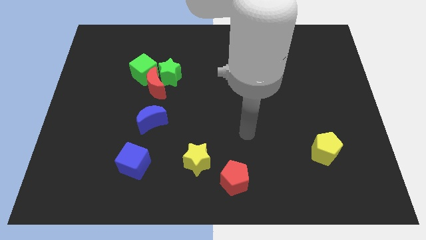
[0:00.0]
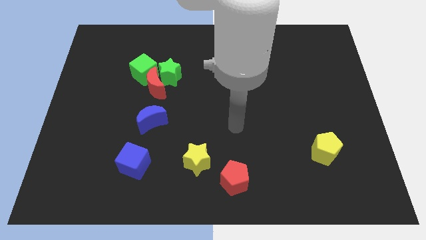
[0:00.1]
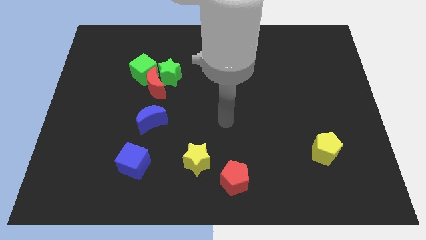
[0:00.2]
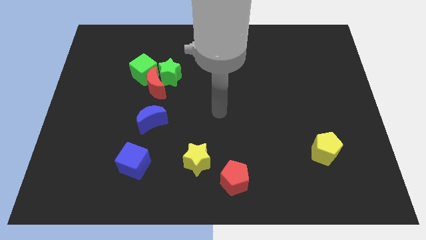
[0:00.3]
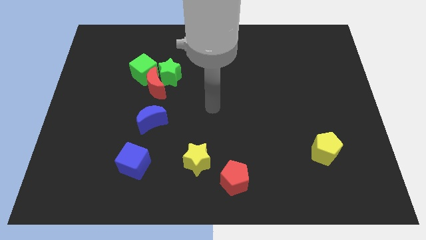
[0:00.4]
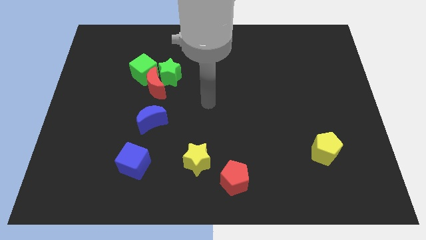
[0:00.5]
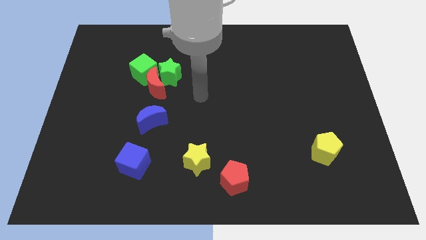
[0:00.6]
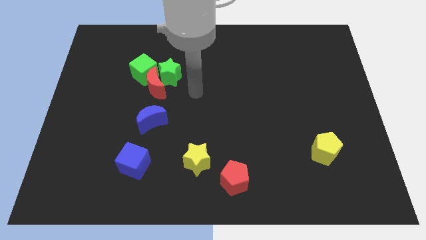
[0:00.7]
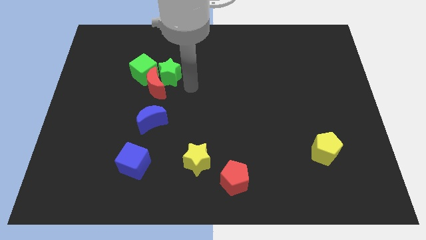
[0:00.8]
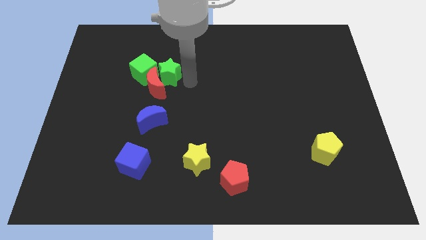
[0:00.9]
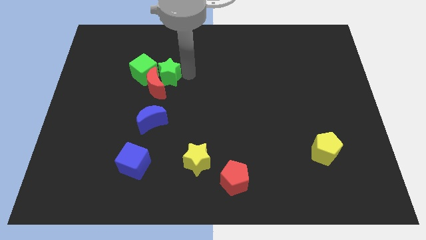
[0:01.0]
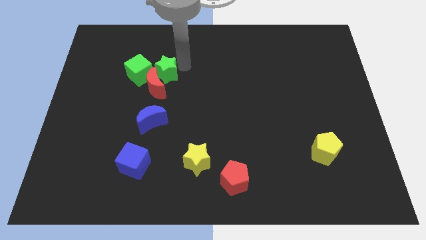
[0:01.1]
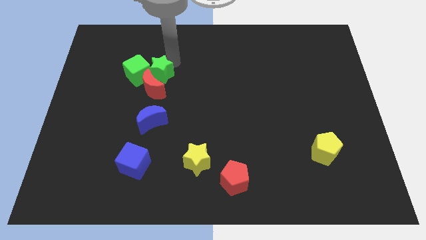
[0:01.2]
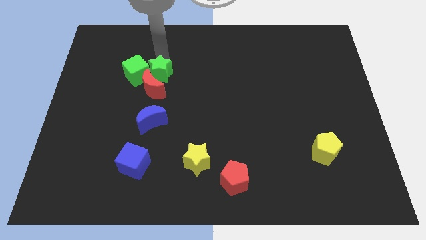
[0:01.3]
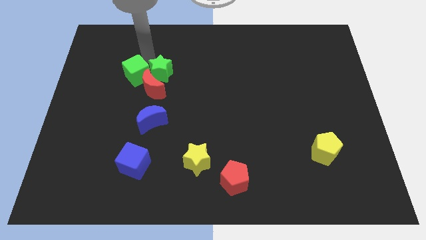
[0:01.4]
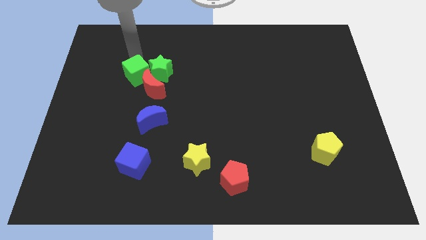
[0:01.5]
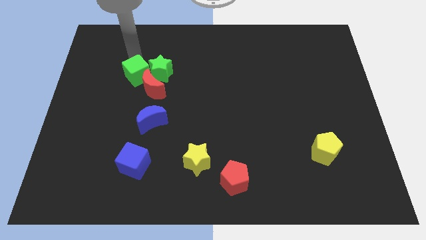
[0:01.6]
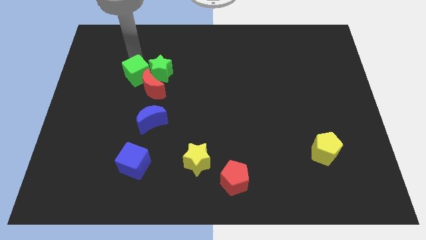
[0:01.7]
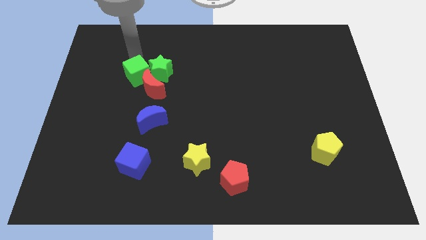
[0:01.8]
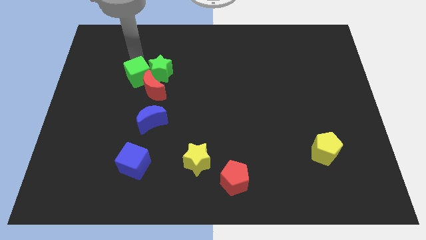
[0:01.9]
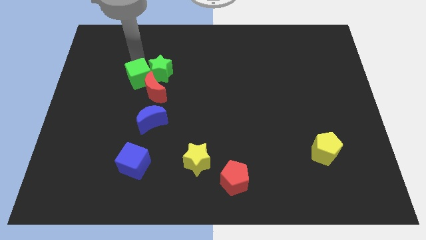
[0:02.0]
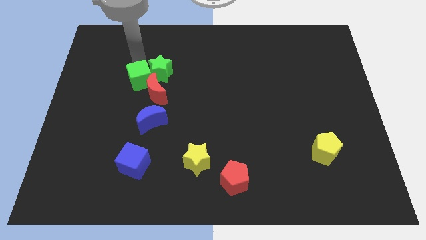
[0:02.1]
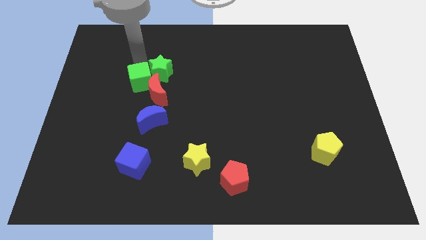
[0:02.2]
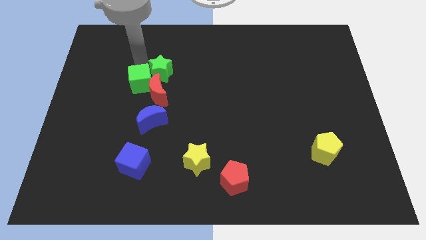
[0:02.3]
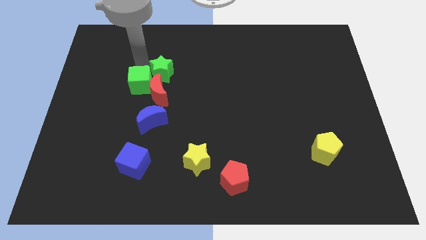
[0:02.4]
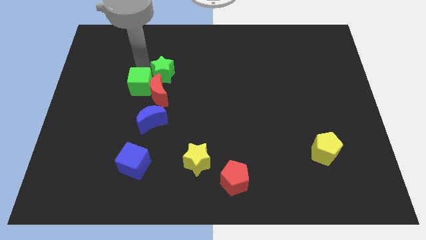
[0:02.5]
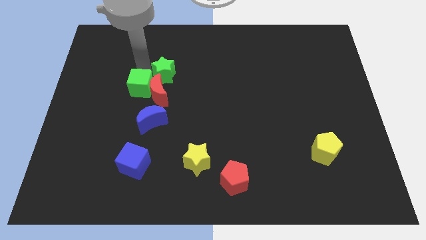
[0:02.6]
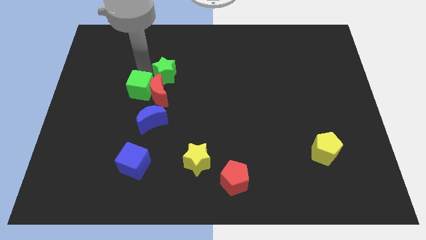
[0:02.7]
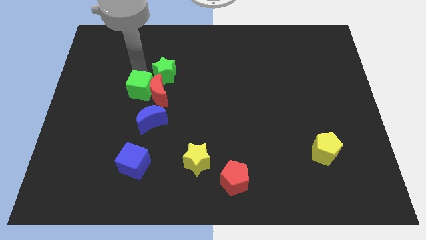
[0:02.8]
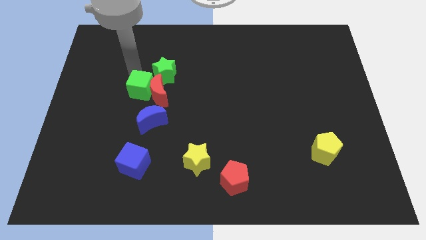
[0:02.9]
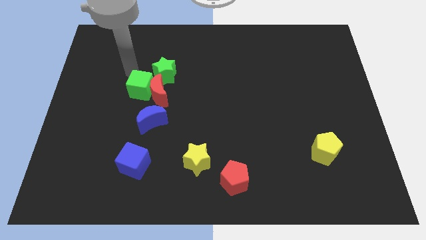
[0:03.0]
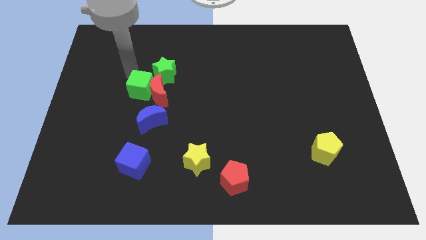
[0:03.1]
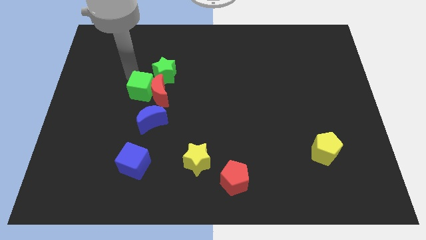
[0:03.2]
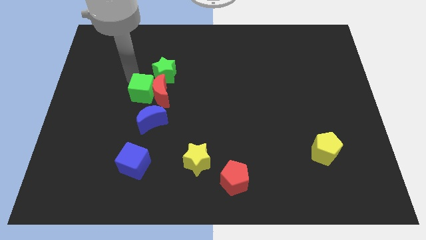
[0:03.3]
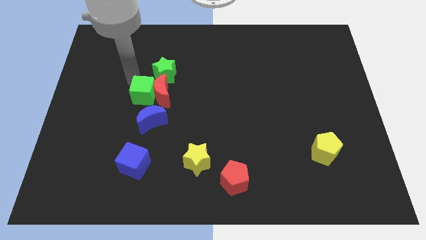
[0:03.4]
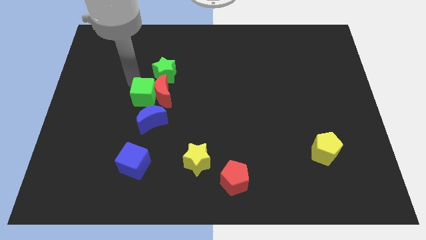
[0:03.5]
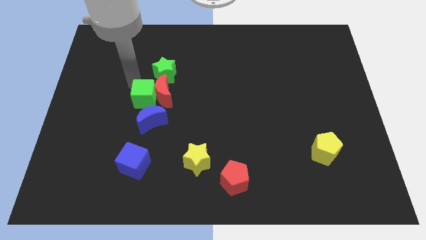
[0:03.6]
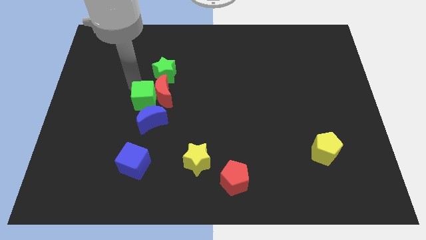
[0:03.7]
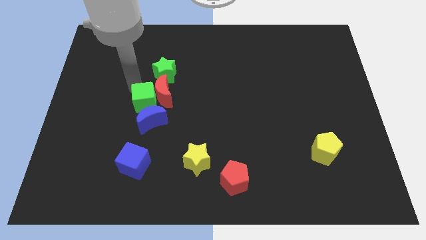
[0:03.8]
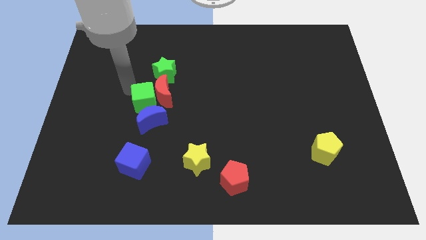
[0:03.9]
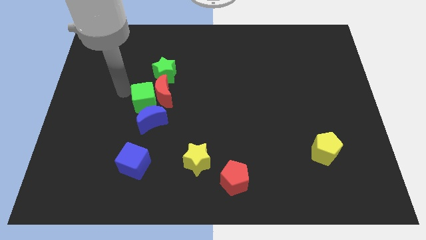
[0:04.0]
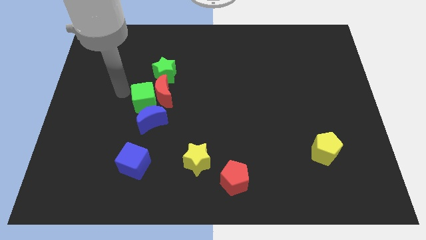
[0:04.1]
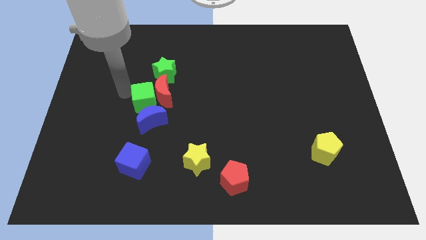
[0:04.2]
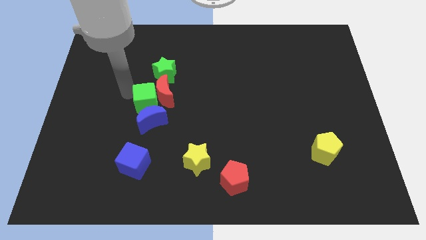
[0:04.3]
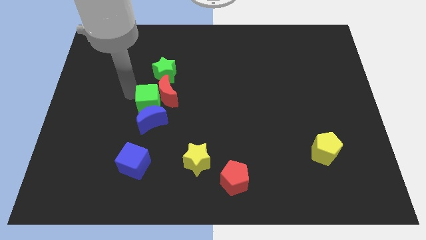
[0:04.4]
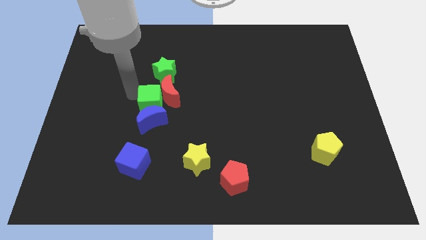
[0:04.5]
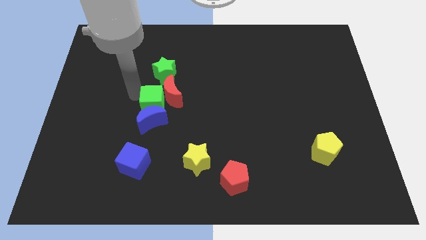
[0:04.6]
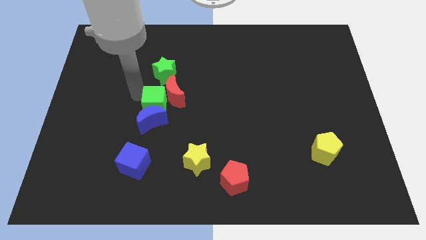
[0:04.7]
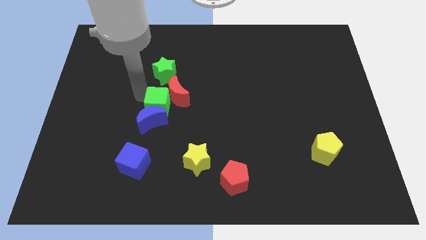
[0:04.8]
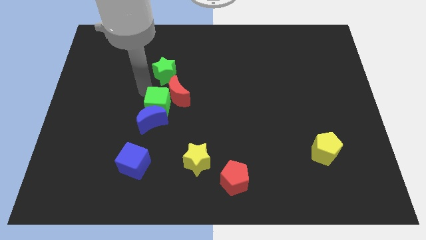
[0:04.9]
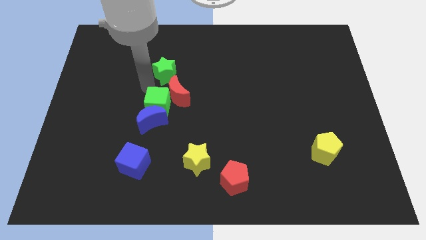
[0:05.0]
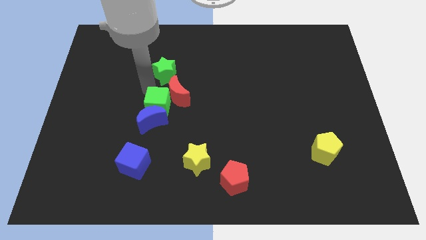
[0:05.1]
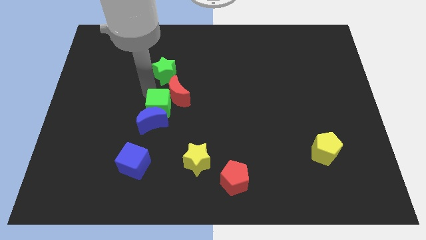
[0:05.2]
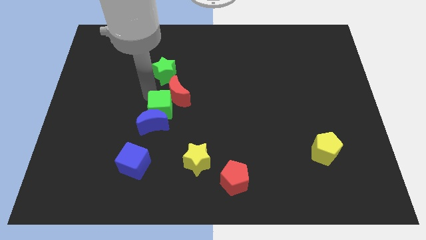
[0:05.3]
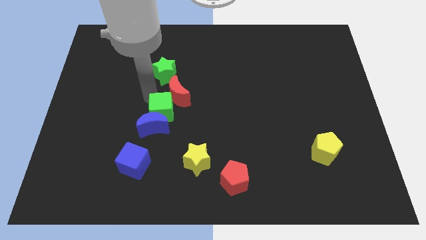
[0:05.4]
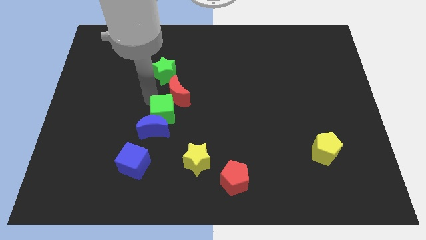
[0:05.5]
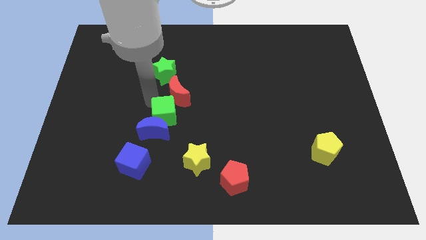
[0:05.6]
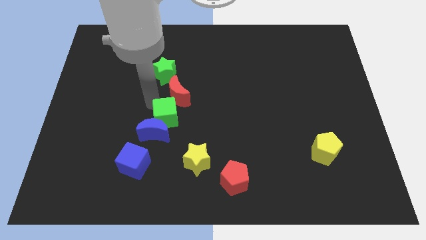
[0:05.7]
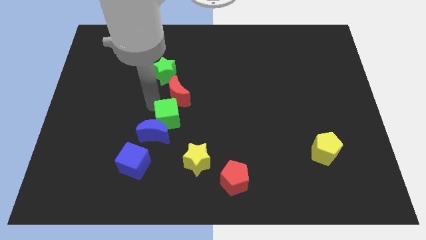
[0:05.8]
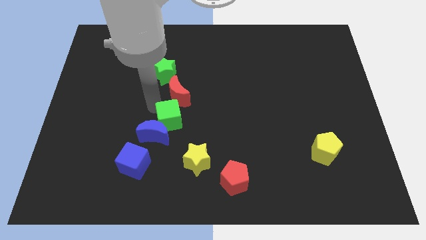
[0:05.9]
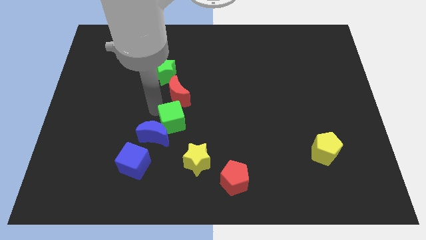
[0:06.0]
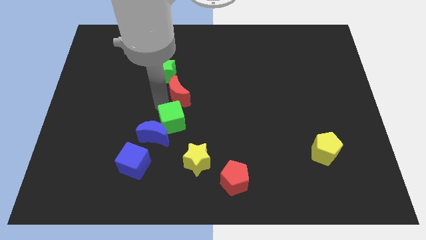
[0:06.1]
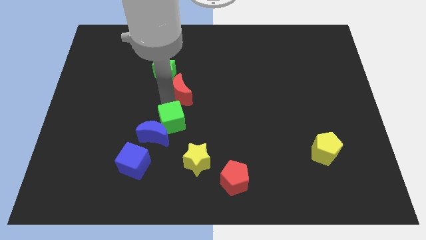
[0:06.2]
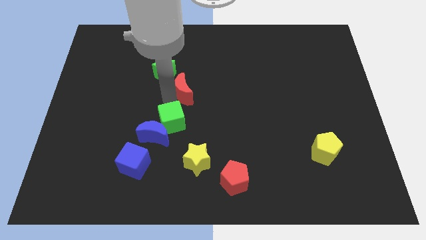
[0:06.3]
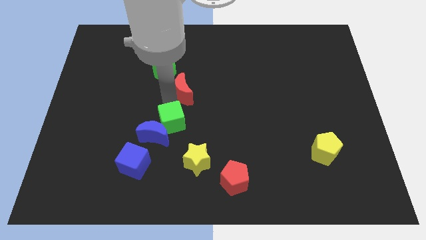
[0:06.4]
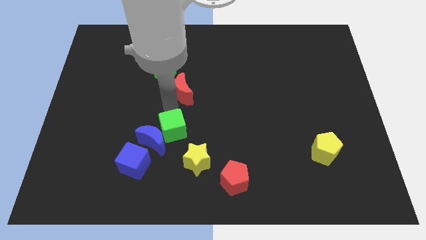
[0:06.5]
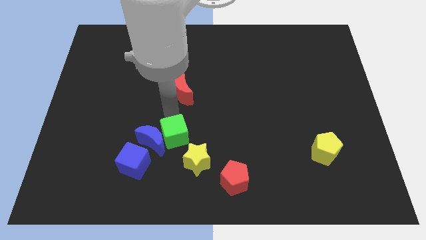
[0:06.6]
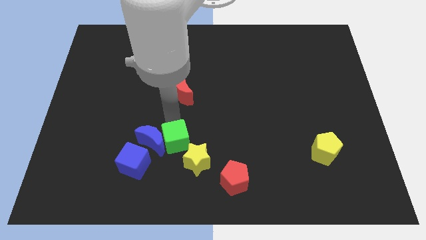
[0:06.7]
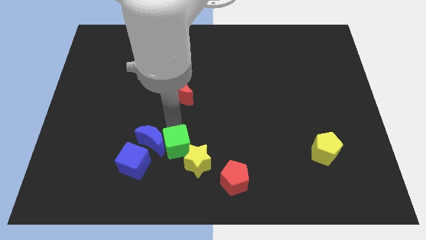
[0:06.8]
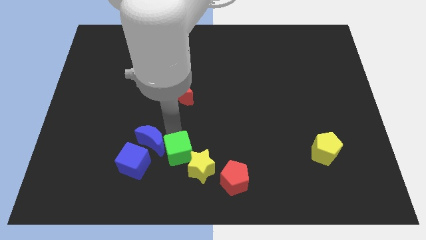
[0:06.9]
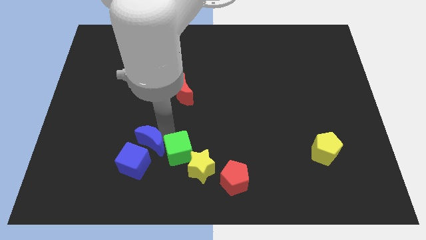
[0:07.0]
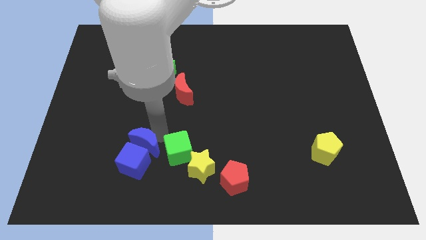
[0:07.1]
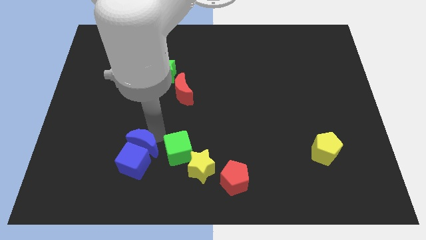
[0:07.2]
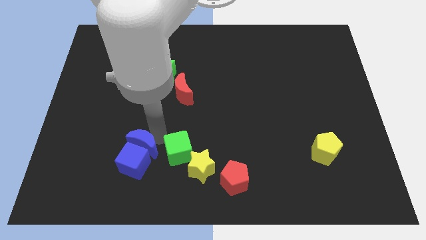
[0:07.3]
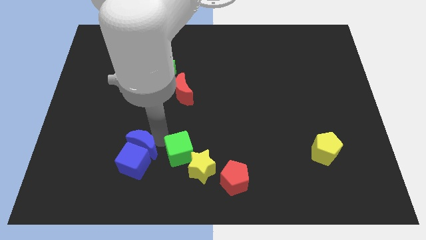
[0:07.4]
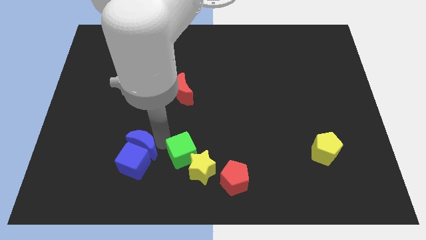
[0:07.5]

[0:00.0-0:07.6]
put the green cube to the yellow star
